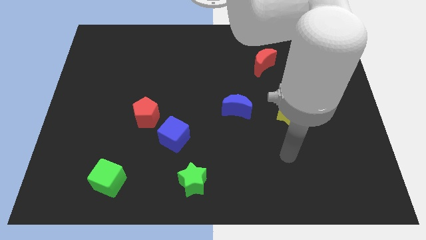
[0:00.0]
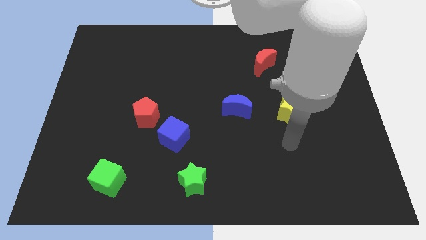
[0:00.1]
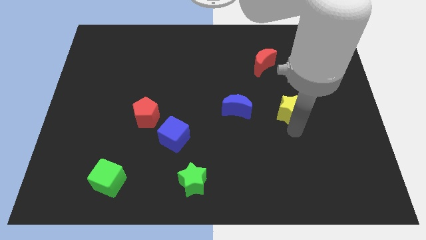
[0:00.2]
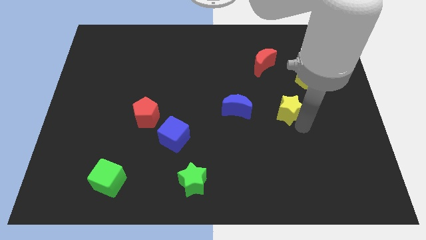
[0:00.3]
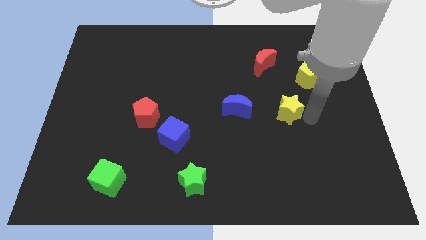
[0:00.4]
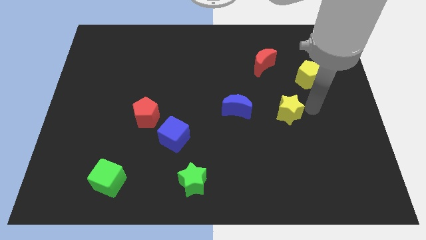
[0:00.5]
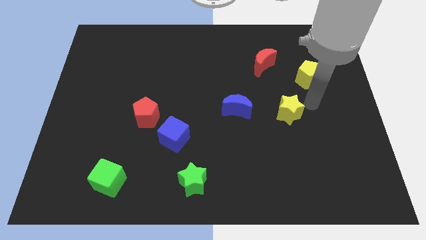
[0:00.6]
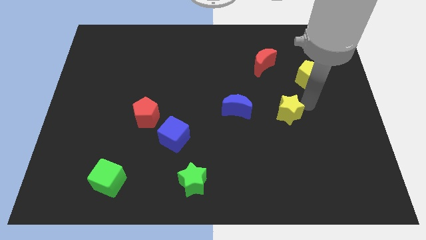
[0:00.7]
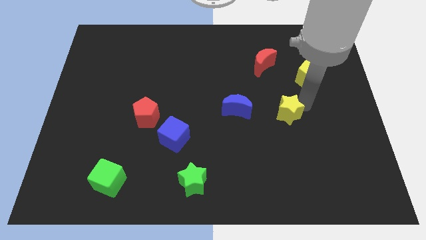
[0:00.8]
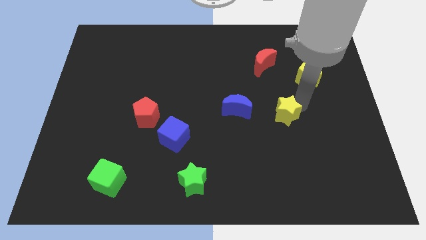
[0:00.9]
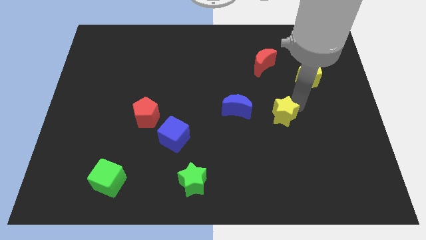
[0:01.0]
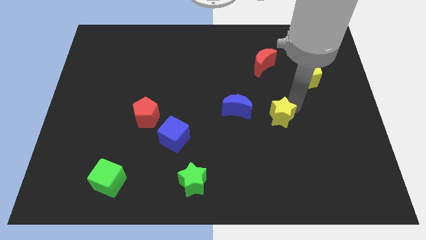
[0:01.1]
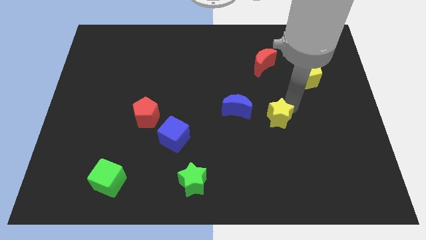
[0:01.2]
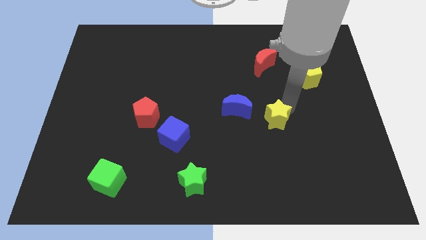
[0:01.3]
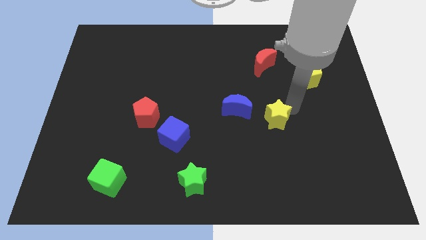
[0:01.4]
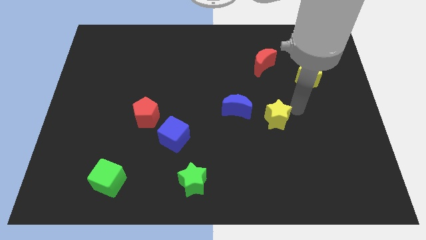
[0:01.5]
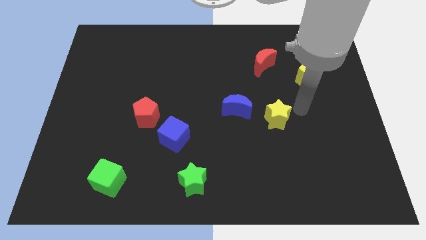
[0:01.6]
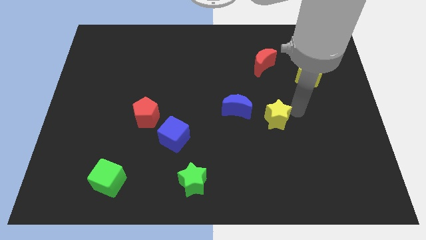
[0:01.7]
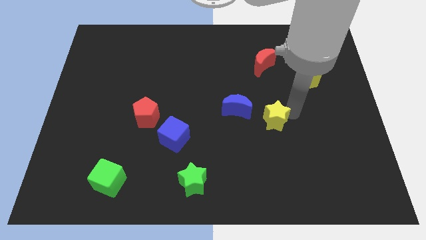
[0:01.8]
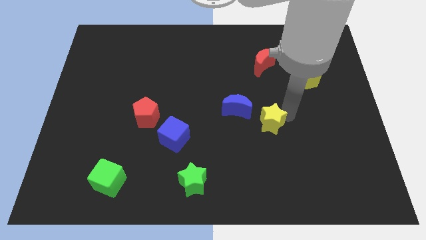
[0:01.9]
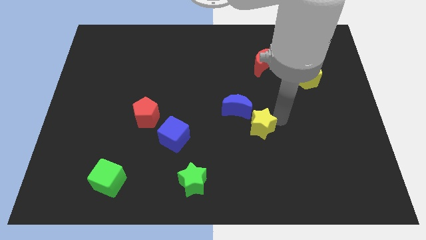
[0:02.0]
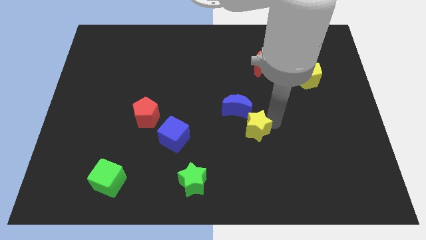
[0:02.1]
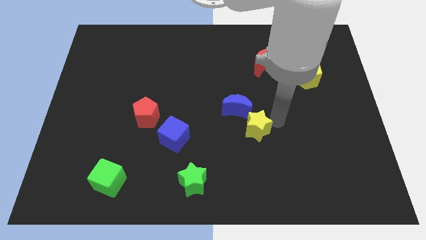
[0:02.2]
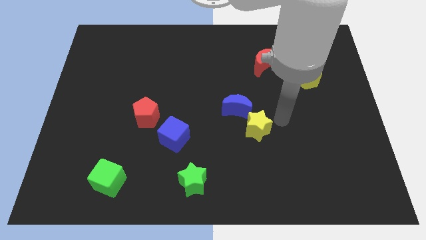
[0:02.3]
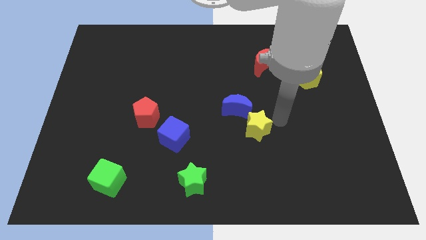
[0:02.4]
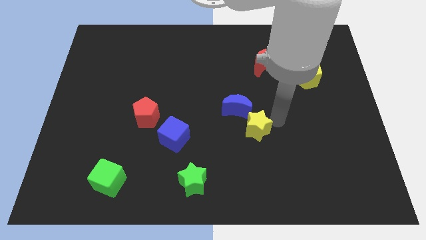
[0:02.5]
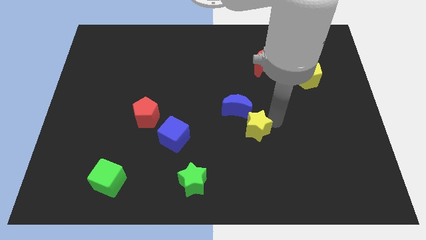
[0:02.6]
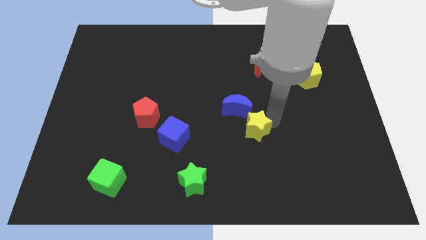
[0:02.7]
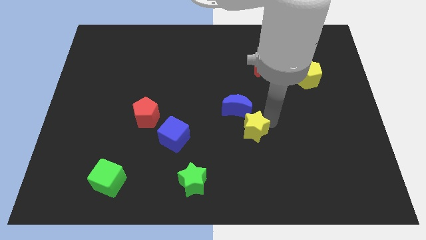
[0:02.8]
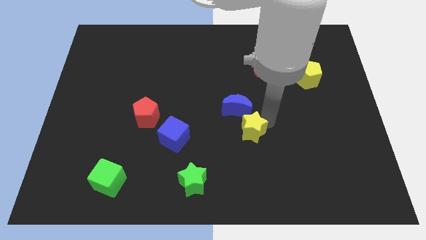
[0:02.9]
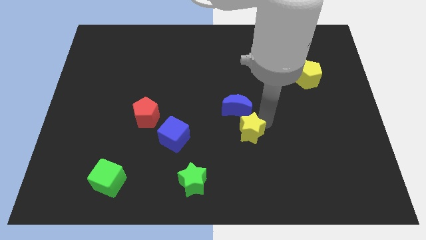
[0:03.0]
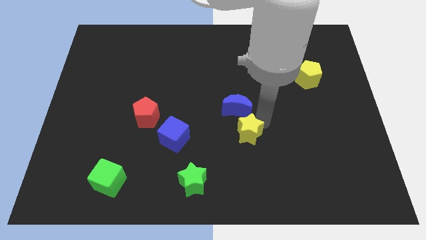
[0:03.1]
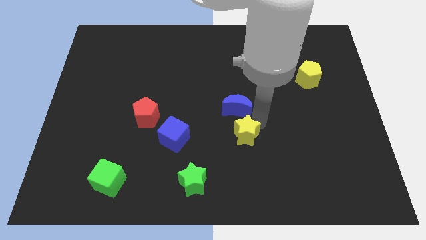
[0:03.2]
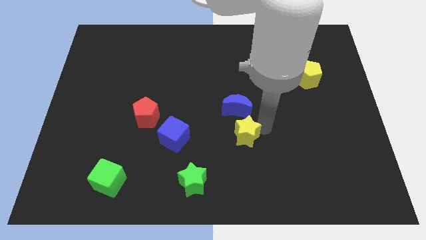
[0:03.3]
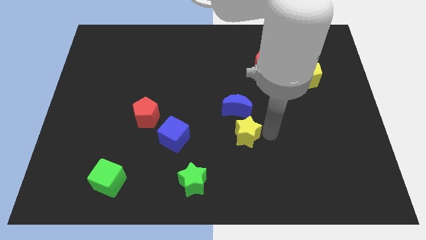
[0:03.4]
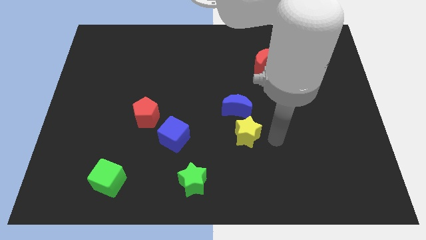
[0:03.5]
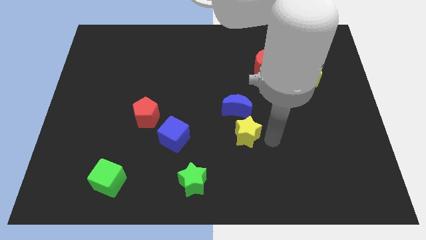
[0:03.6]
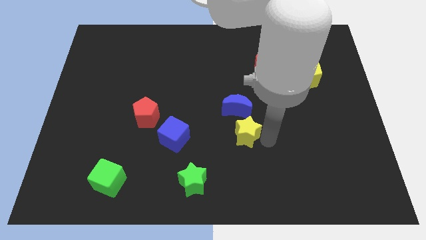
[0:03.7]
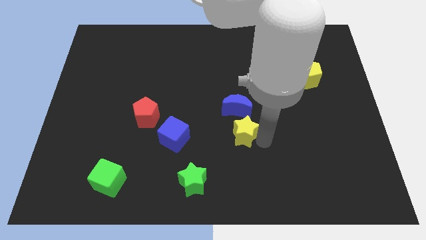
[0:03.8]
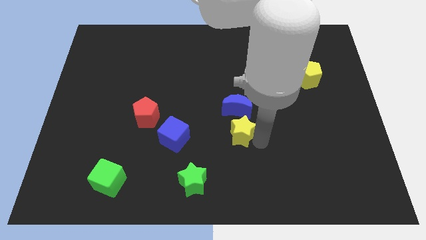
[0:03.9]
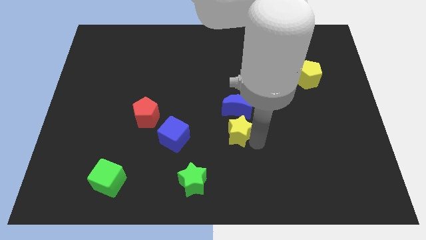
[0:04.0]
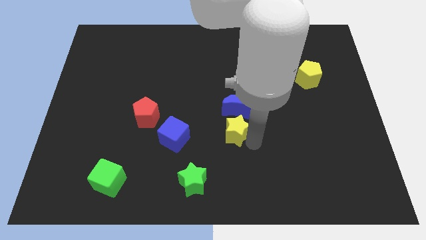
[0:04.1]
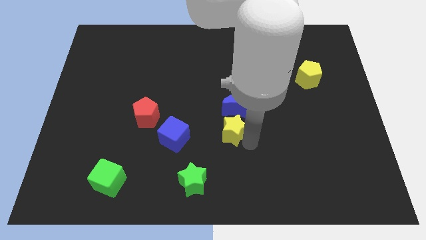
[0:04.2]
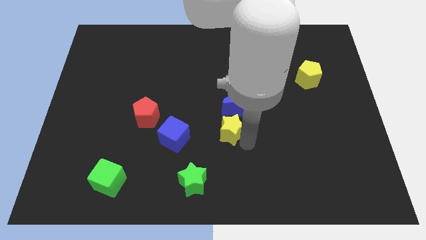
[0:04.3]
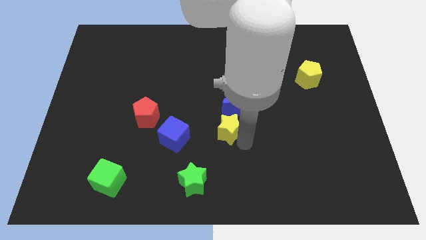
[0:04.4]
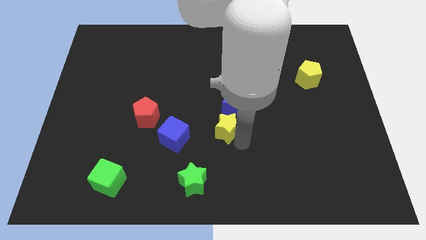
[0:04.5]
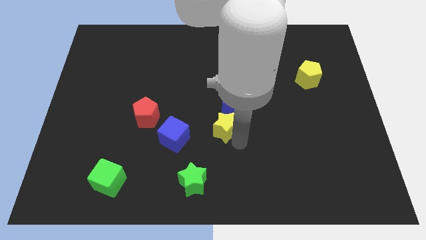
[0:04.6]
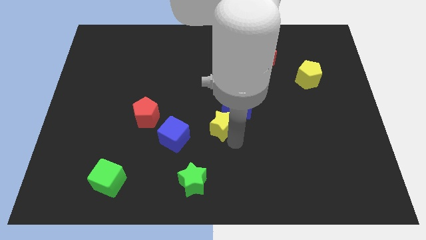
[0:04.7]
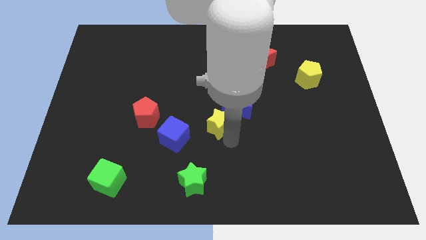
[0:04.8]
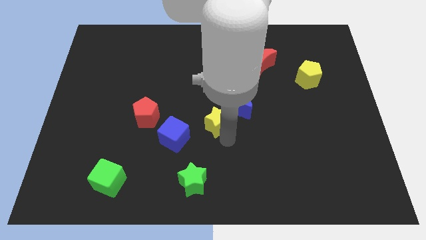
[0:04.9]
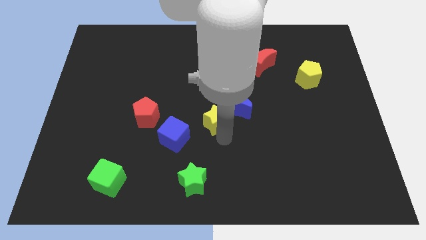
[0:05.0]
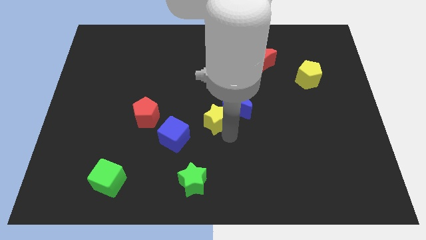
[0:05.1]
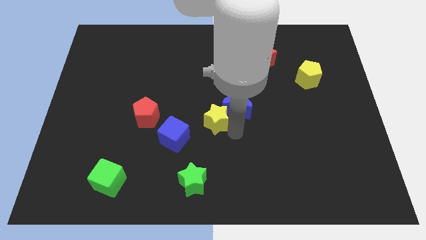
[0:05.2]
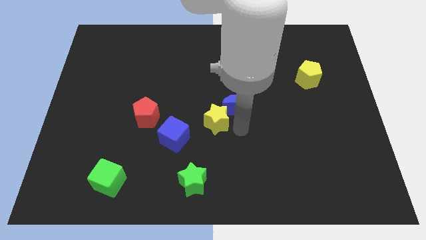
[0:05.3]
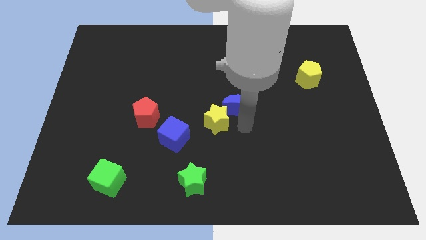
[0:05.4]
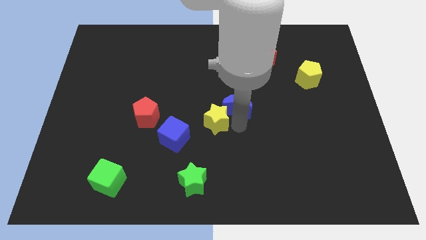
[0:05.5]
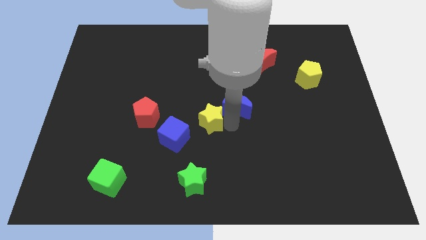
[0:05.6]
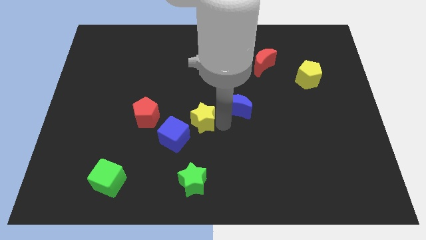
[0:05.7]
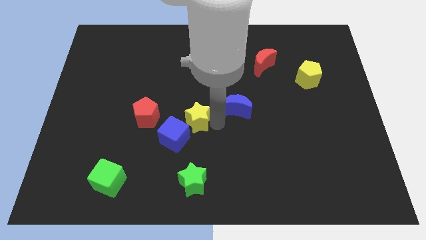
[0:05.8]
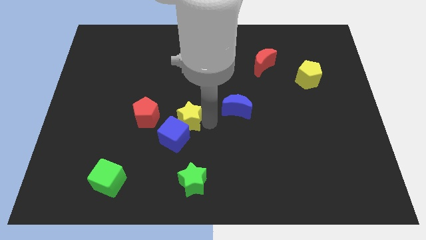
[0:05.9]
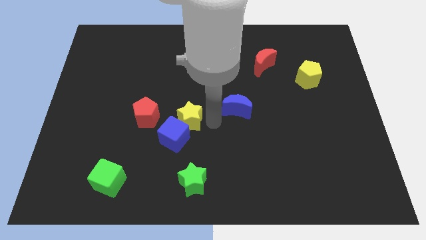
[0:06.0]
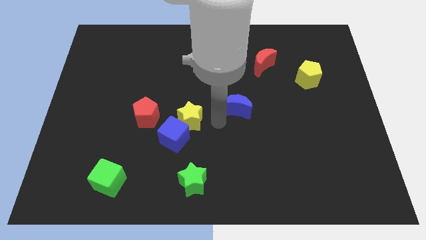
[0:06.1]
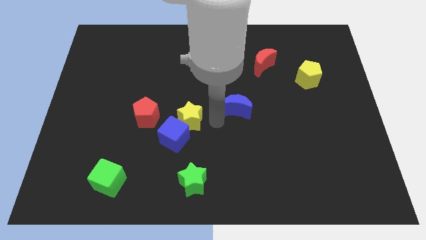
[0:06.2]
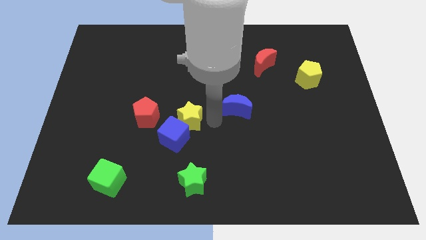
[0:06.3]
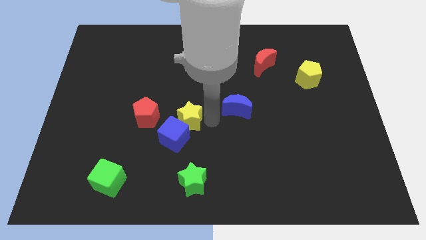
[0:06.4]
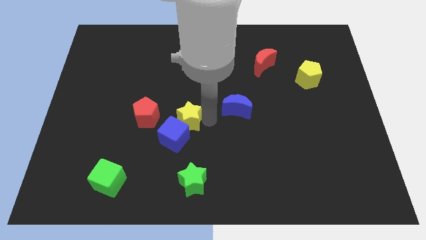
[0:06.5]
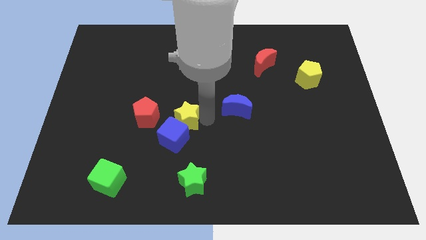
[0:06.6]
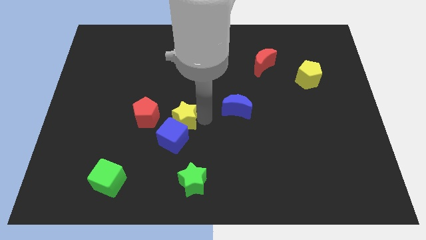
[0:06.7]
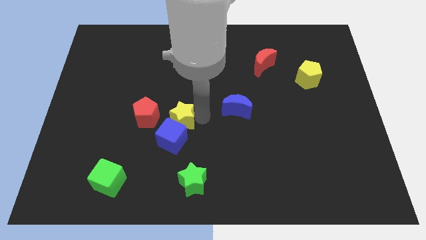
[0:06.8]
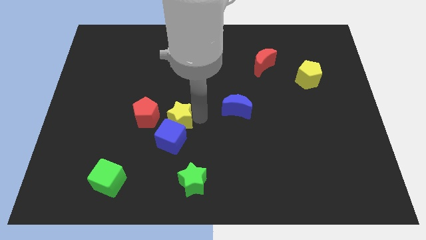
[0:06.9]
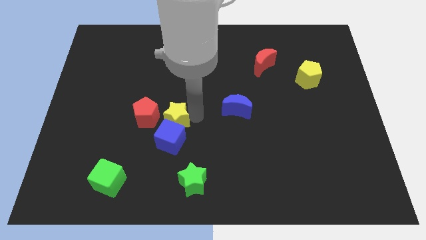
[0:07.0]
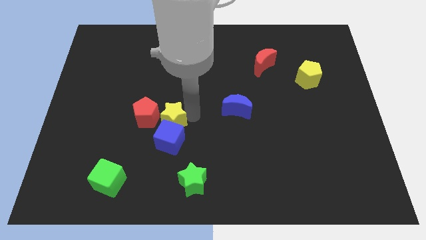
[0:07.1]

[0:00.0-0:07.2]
slide the yellow star to the red pentagon
